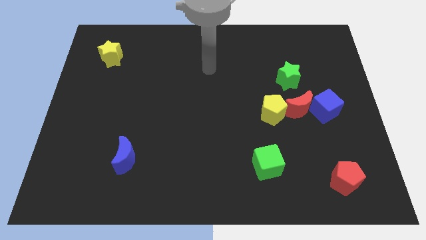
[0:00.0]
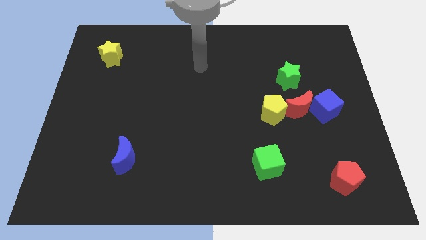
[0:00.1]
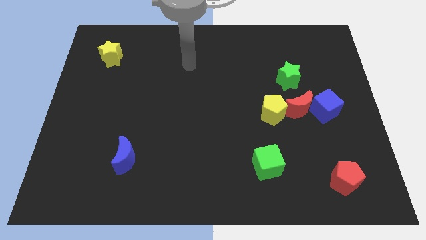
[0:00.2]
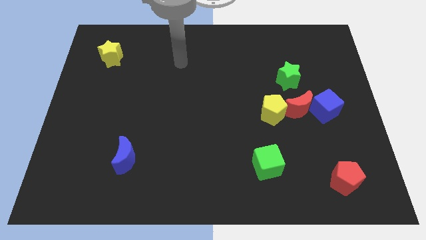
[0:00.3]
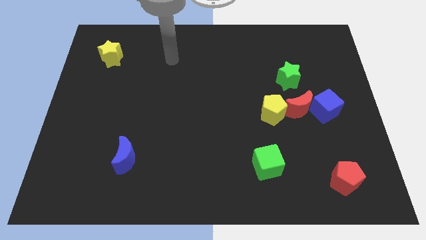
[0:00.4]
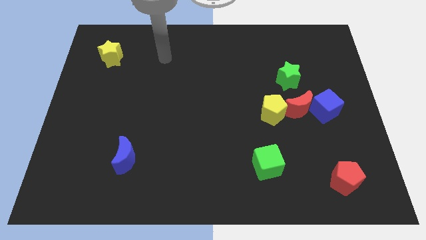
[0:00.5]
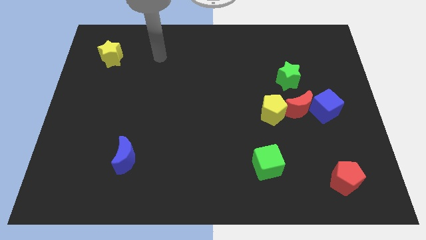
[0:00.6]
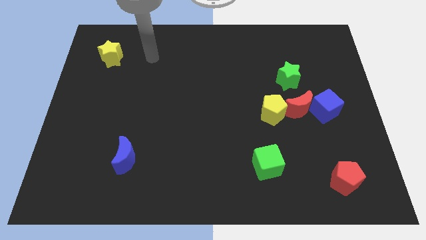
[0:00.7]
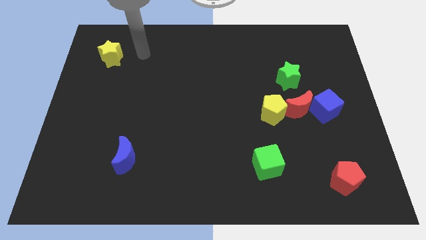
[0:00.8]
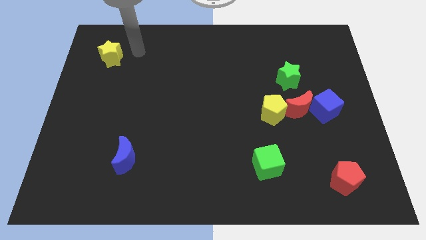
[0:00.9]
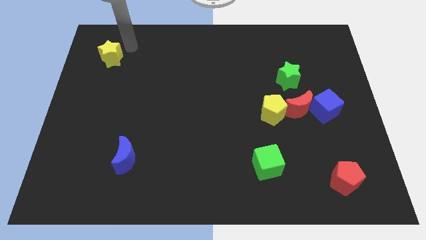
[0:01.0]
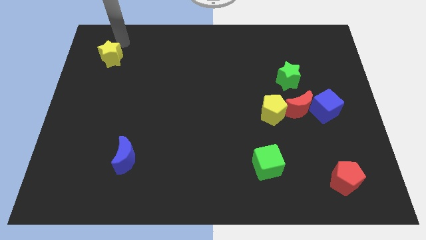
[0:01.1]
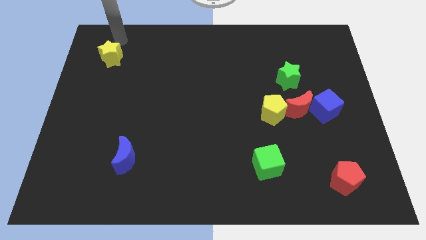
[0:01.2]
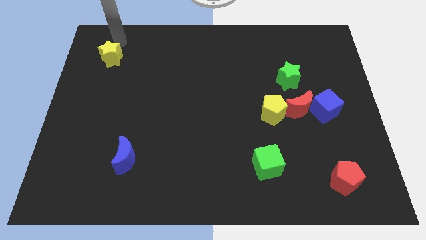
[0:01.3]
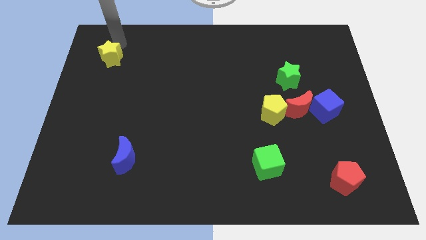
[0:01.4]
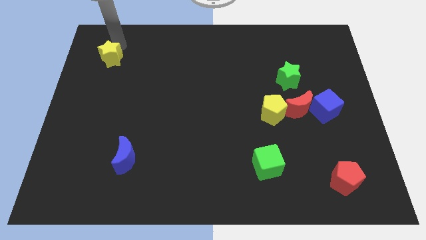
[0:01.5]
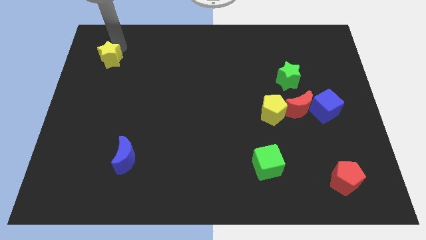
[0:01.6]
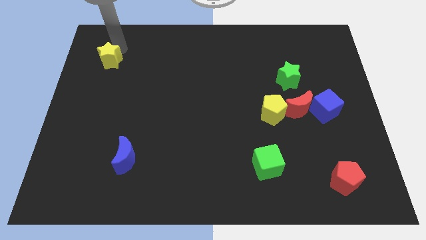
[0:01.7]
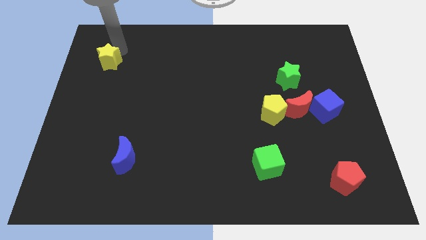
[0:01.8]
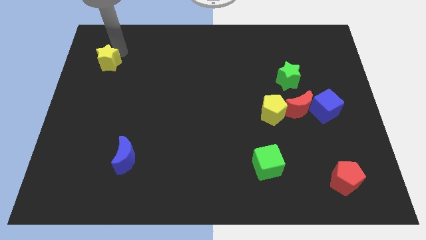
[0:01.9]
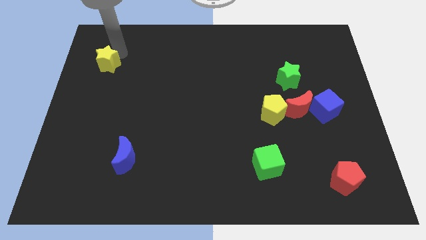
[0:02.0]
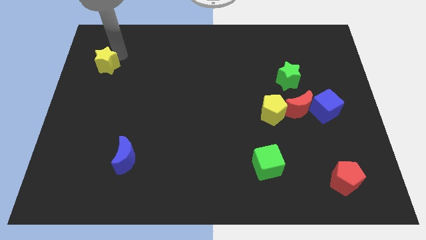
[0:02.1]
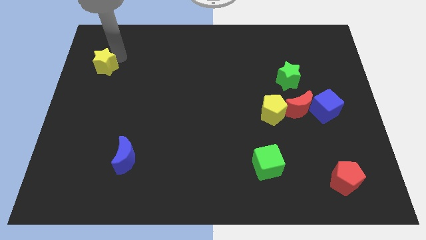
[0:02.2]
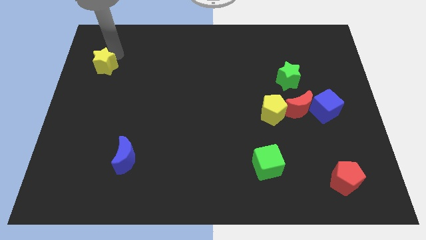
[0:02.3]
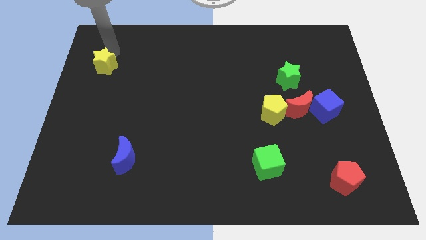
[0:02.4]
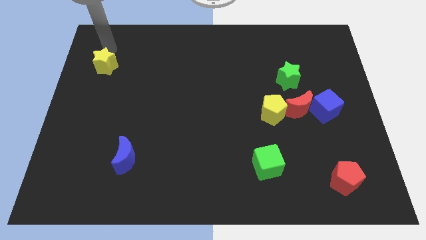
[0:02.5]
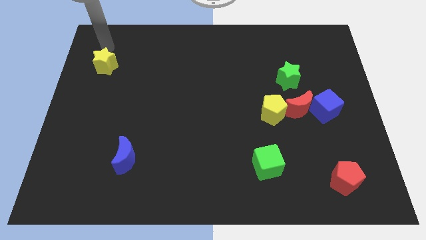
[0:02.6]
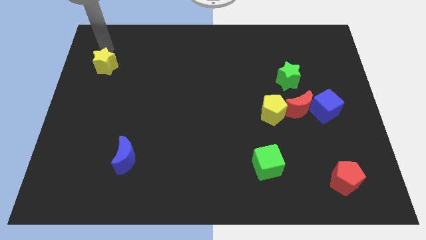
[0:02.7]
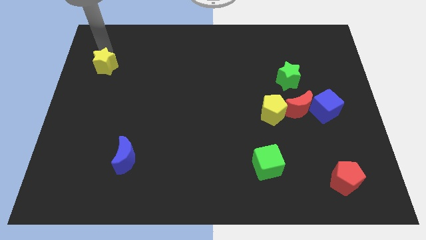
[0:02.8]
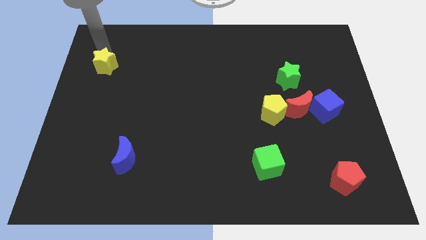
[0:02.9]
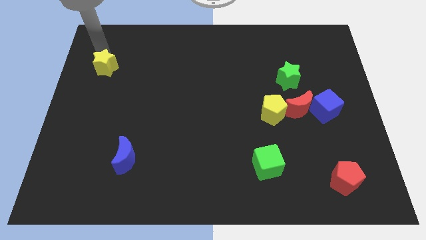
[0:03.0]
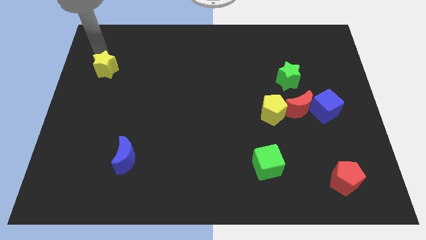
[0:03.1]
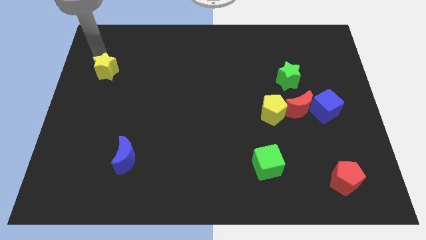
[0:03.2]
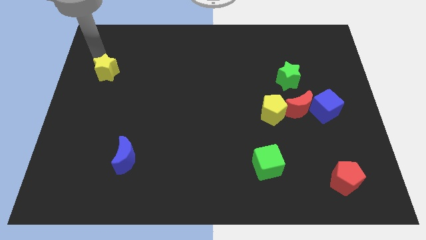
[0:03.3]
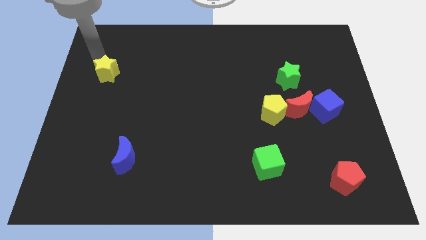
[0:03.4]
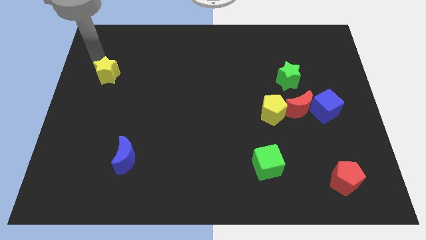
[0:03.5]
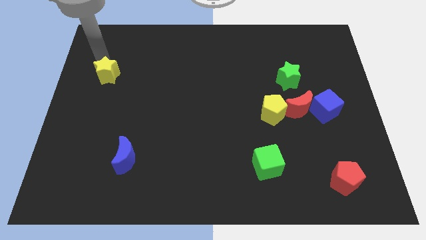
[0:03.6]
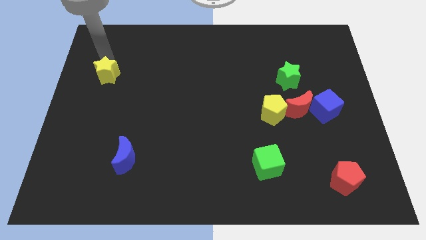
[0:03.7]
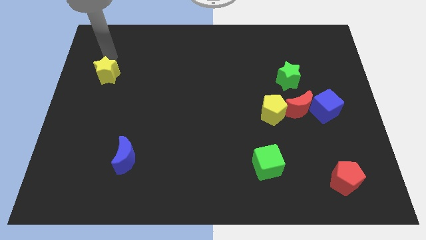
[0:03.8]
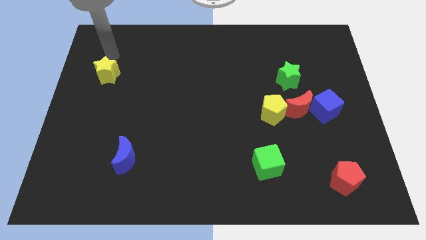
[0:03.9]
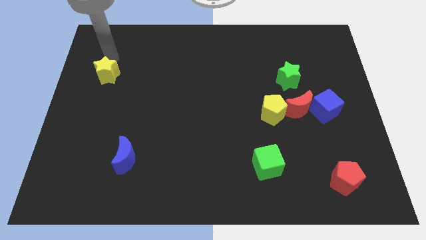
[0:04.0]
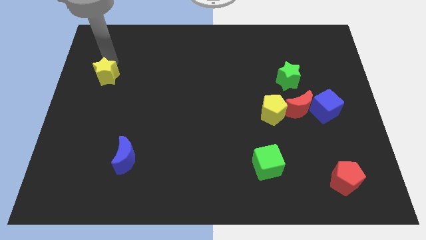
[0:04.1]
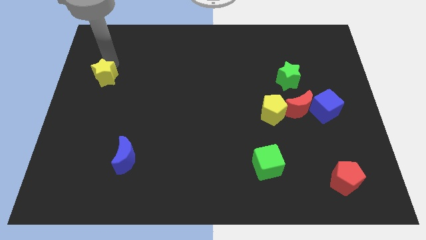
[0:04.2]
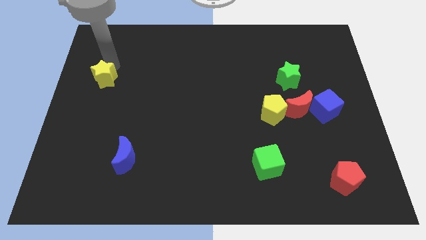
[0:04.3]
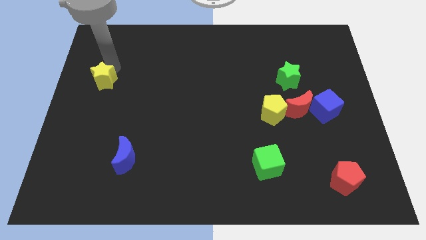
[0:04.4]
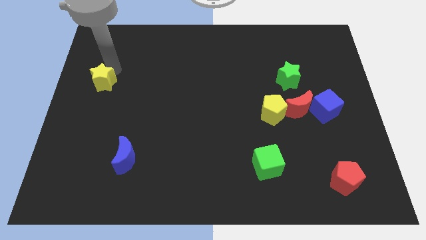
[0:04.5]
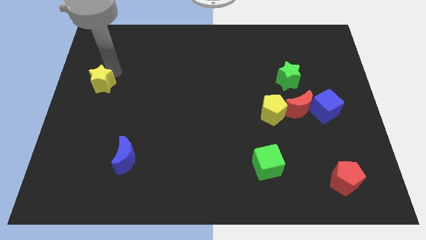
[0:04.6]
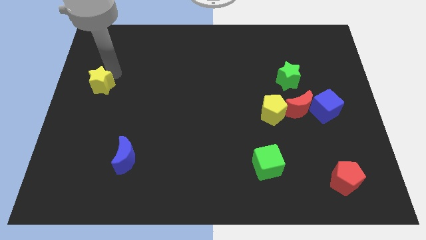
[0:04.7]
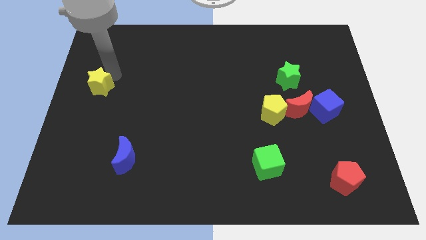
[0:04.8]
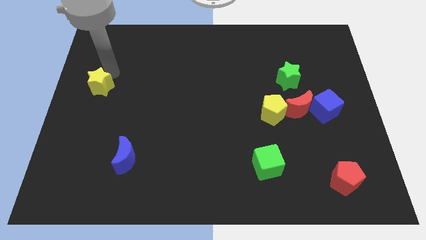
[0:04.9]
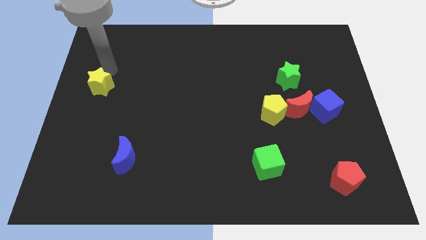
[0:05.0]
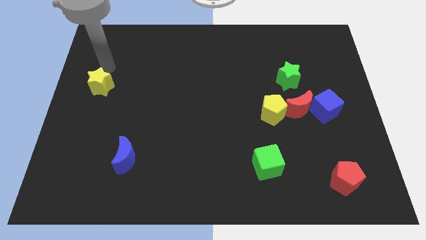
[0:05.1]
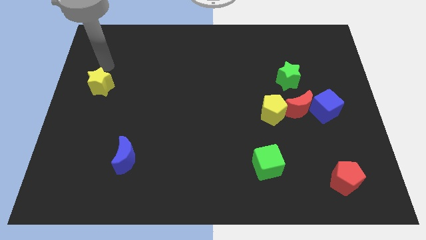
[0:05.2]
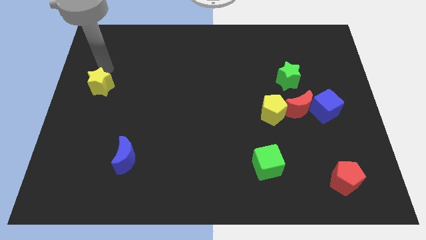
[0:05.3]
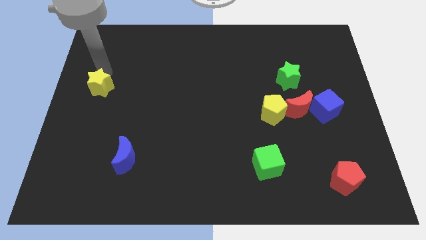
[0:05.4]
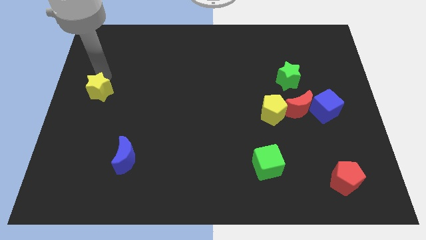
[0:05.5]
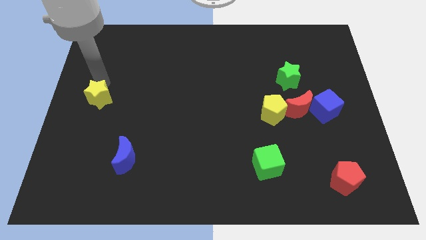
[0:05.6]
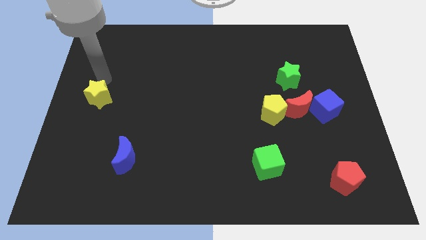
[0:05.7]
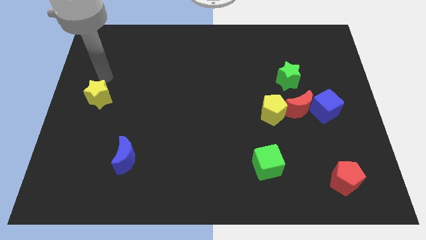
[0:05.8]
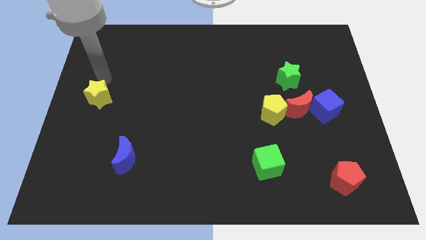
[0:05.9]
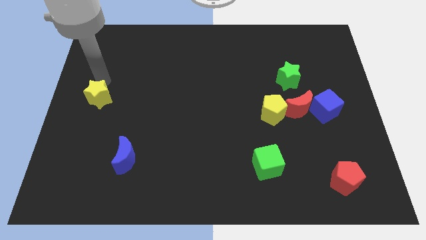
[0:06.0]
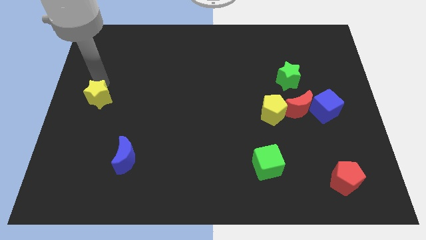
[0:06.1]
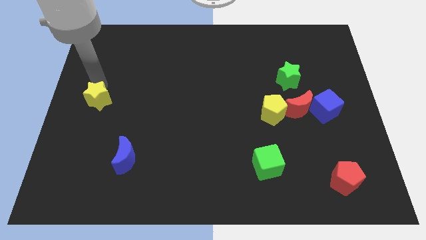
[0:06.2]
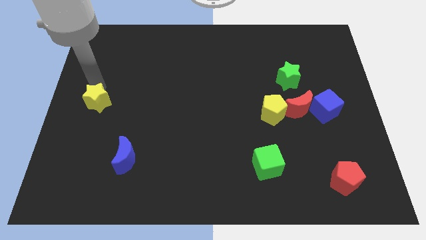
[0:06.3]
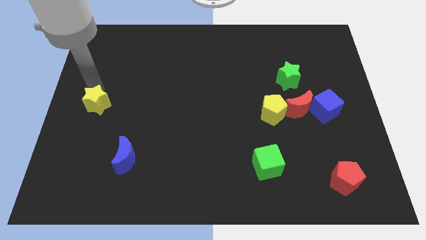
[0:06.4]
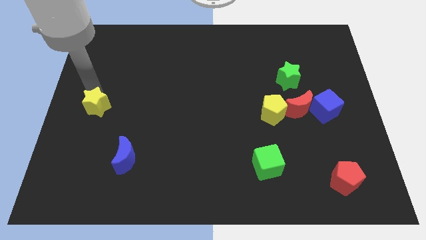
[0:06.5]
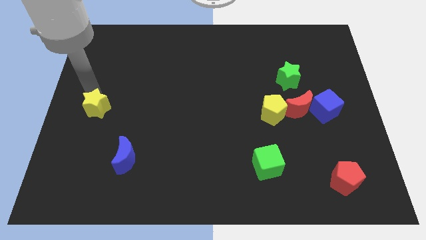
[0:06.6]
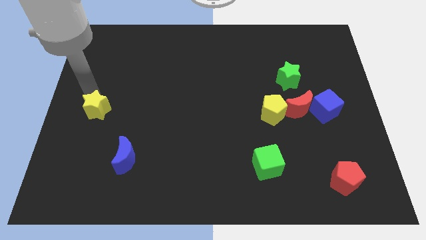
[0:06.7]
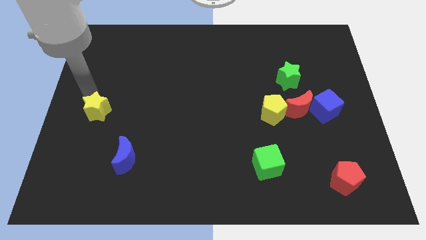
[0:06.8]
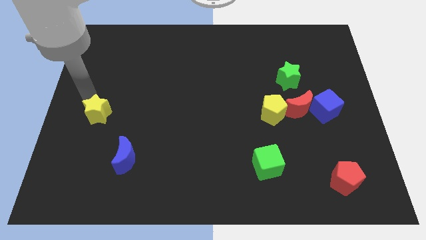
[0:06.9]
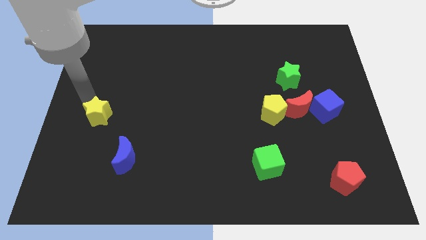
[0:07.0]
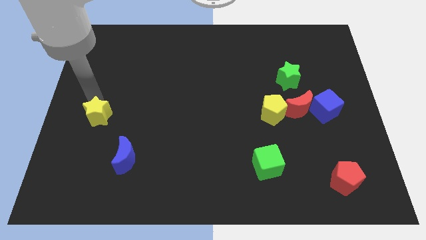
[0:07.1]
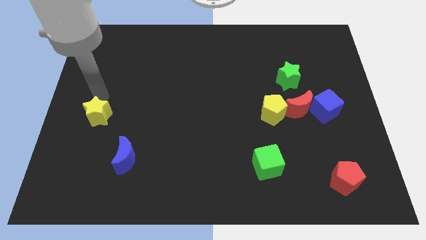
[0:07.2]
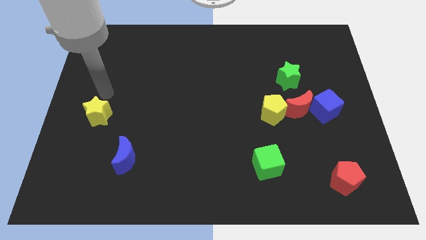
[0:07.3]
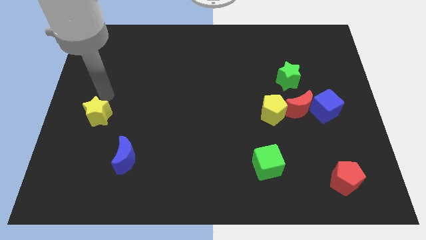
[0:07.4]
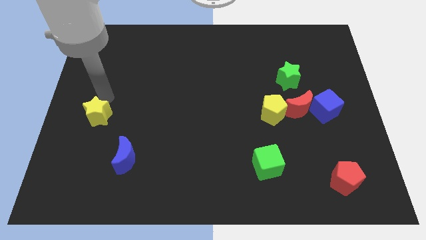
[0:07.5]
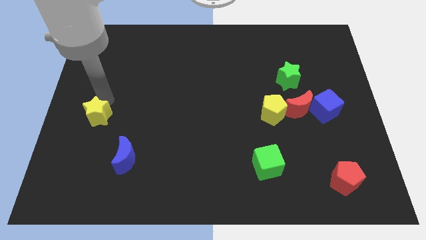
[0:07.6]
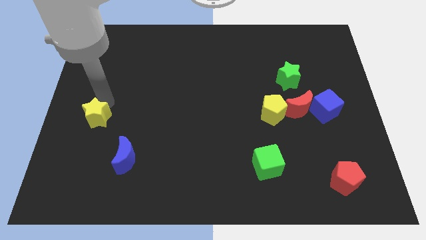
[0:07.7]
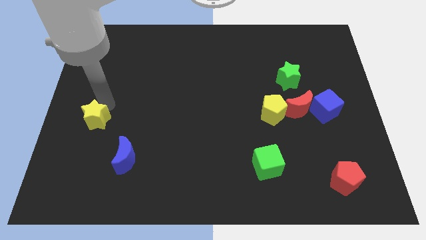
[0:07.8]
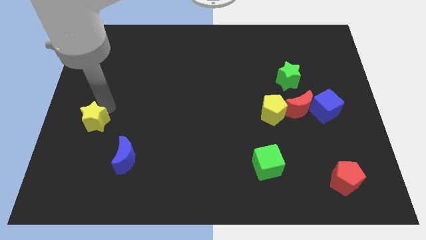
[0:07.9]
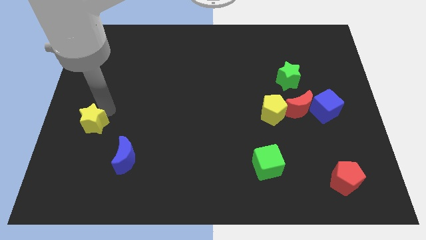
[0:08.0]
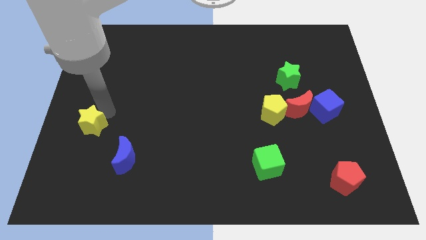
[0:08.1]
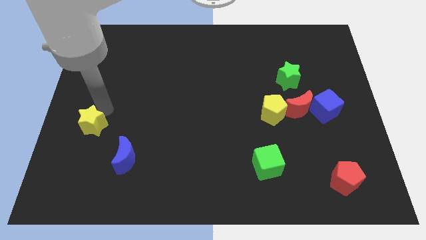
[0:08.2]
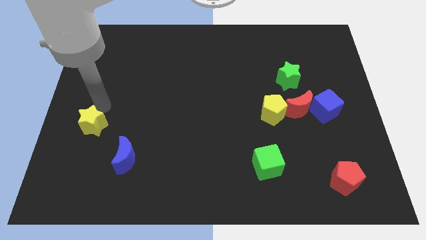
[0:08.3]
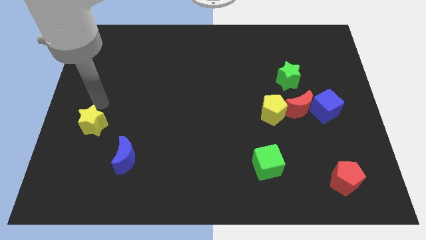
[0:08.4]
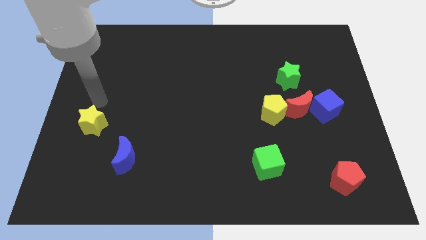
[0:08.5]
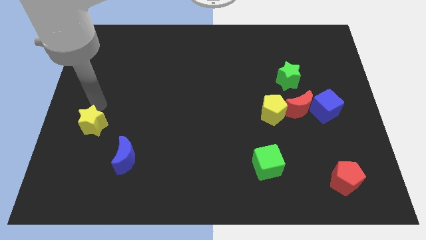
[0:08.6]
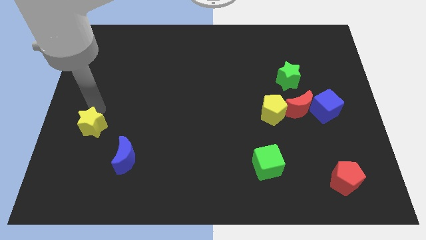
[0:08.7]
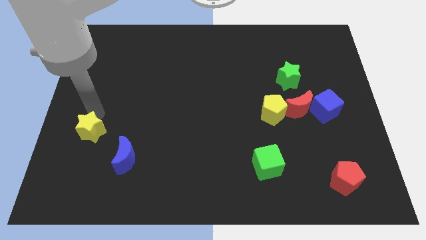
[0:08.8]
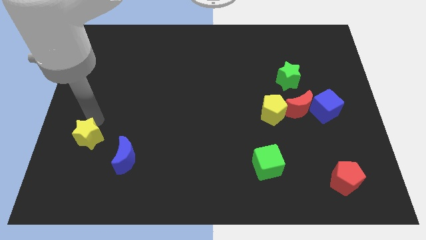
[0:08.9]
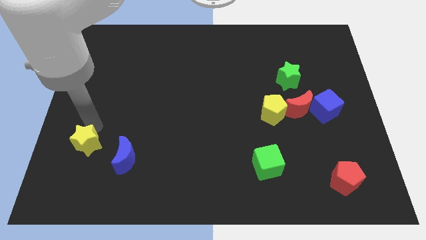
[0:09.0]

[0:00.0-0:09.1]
push the yellow star to the left of the blue moon
